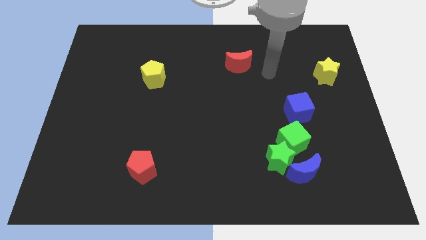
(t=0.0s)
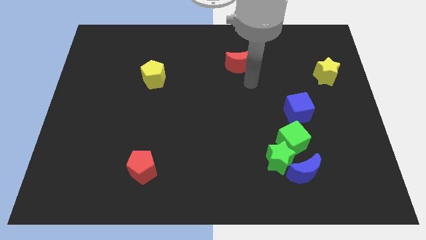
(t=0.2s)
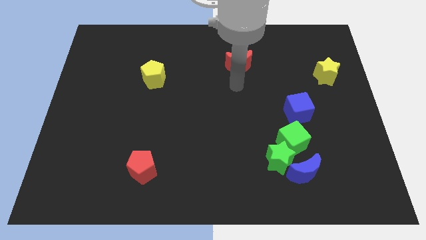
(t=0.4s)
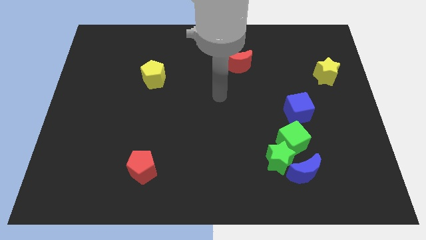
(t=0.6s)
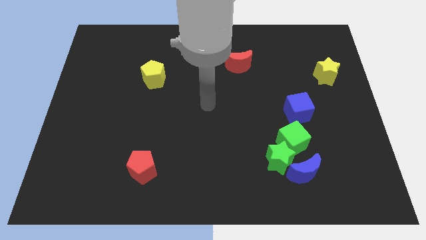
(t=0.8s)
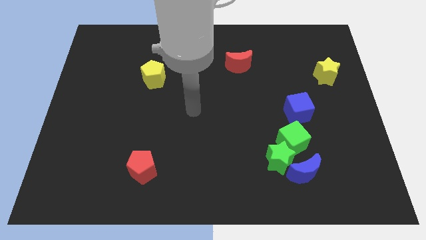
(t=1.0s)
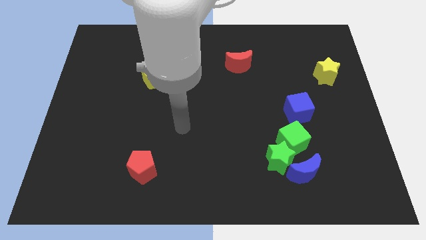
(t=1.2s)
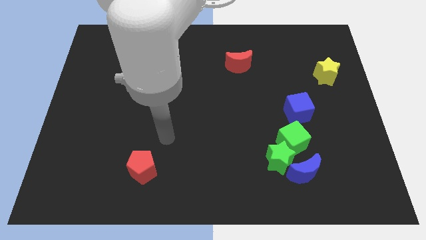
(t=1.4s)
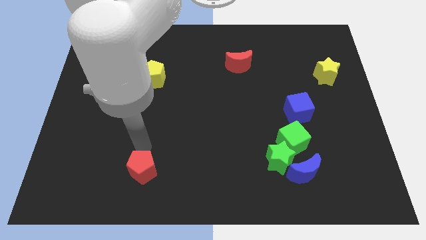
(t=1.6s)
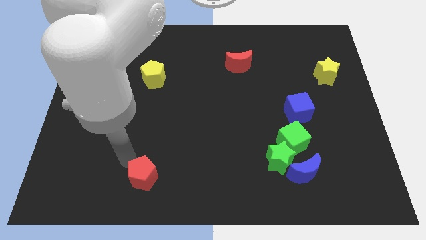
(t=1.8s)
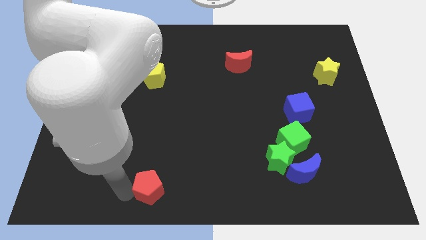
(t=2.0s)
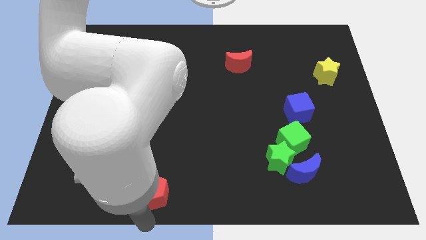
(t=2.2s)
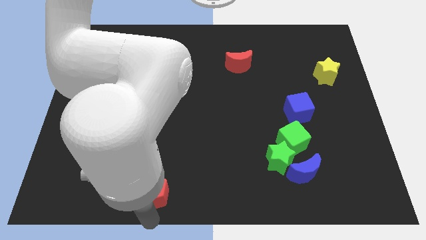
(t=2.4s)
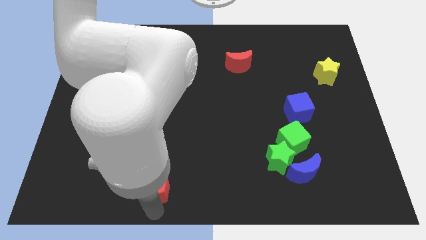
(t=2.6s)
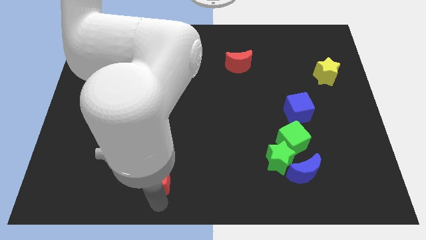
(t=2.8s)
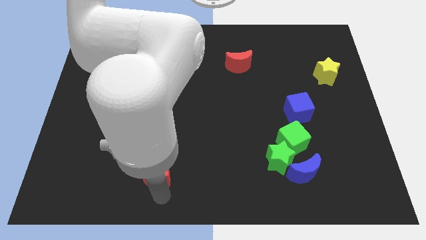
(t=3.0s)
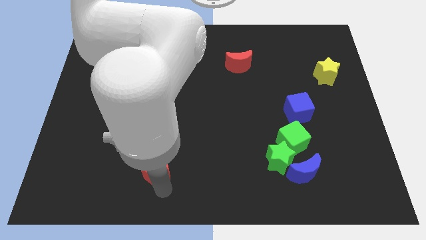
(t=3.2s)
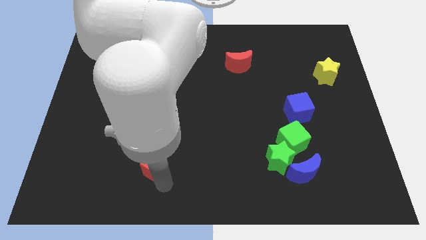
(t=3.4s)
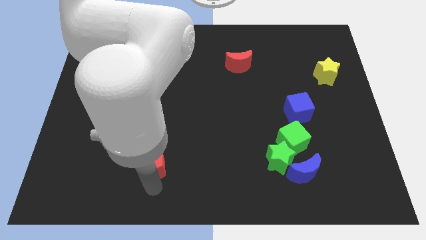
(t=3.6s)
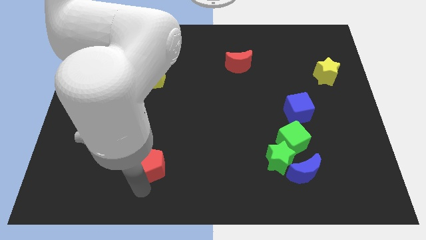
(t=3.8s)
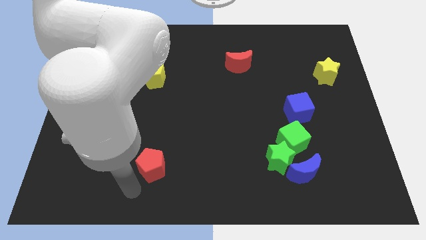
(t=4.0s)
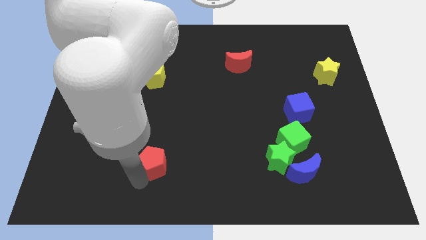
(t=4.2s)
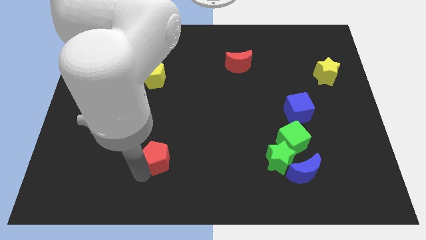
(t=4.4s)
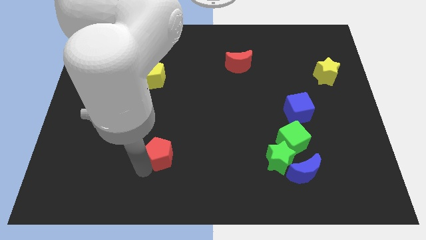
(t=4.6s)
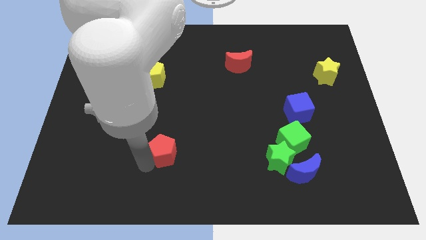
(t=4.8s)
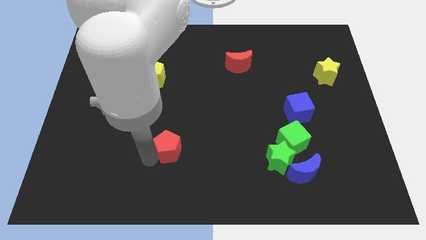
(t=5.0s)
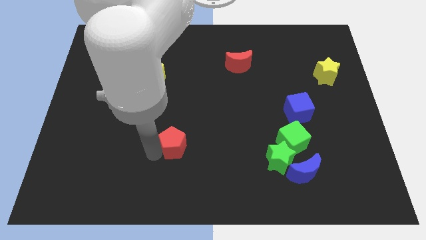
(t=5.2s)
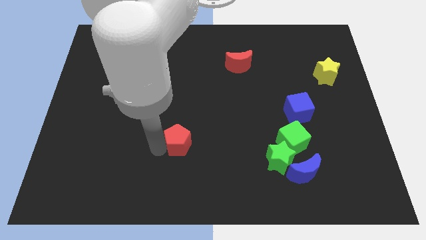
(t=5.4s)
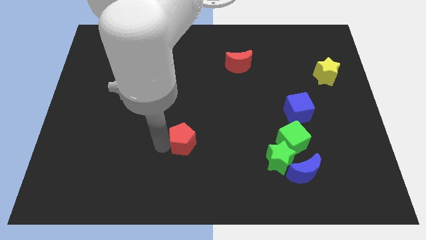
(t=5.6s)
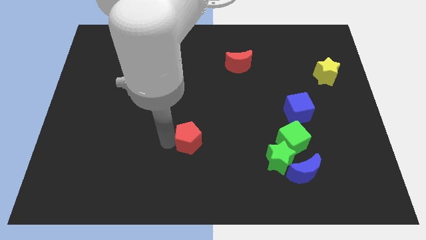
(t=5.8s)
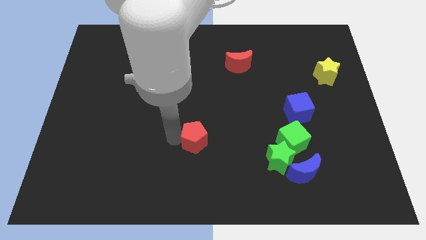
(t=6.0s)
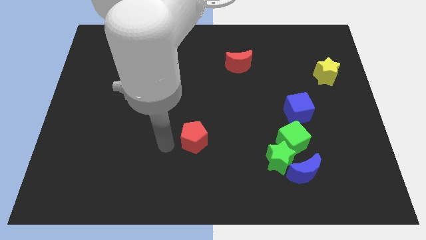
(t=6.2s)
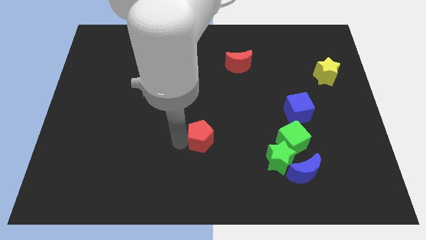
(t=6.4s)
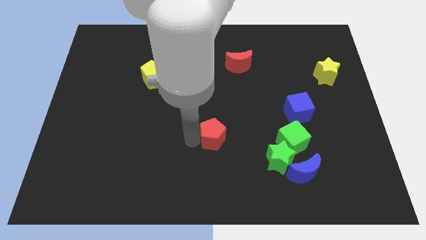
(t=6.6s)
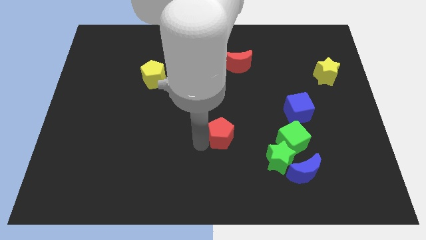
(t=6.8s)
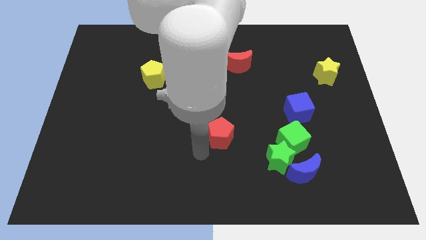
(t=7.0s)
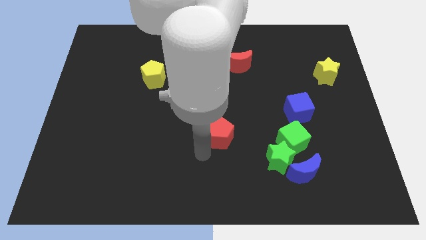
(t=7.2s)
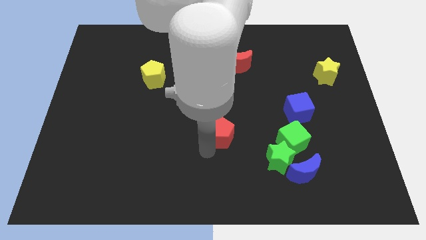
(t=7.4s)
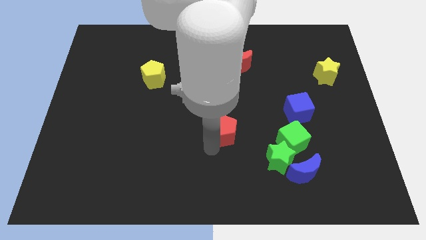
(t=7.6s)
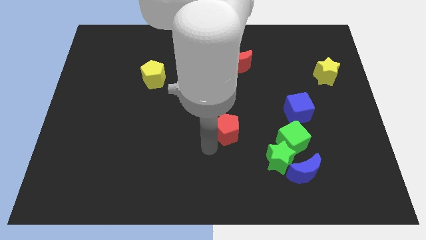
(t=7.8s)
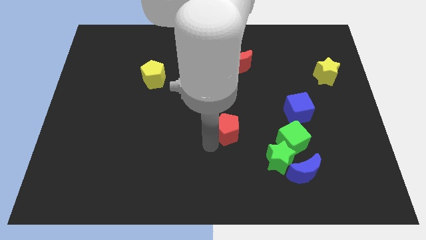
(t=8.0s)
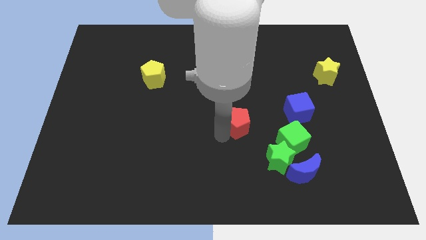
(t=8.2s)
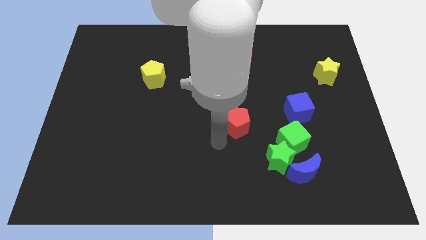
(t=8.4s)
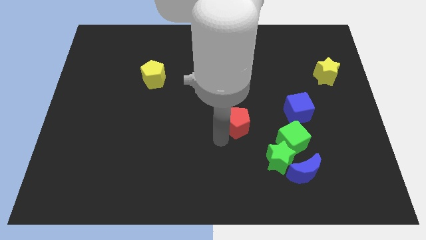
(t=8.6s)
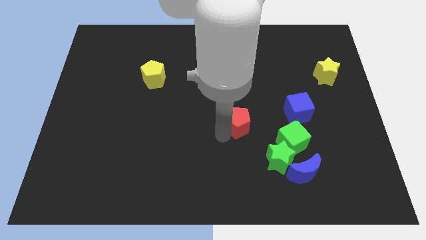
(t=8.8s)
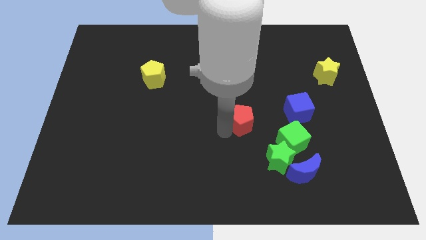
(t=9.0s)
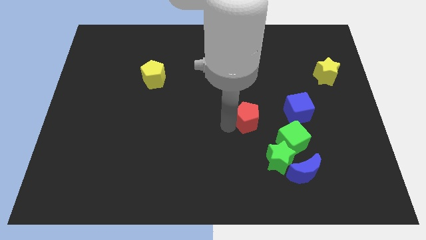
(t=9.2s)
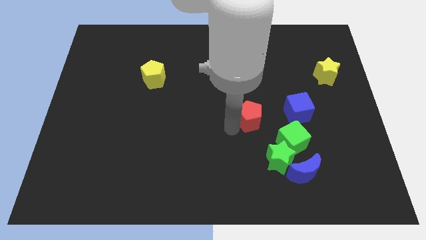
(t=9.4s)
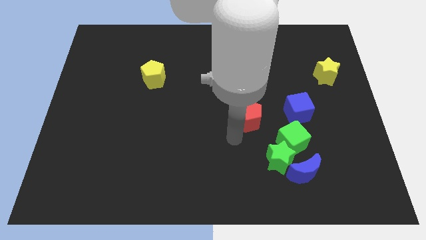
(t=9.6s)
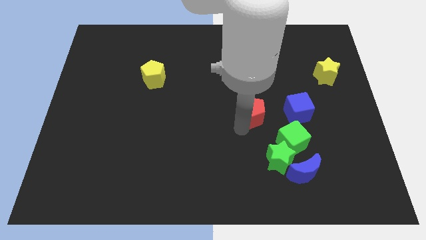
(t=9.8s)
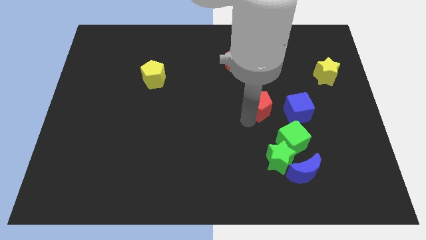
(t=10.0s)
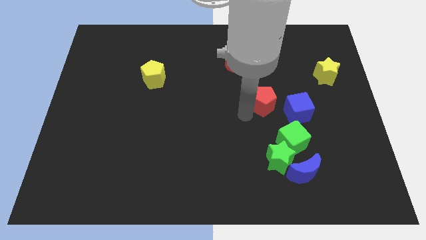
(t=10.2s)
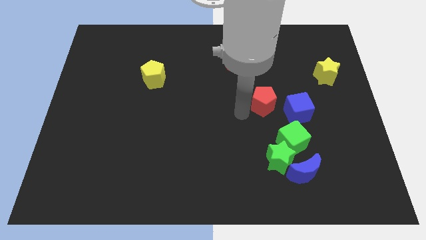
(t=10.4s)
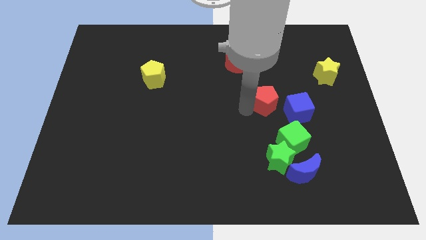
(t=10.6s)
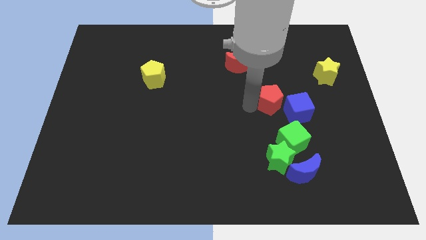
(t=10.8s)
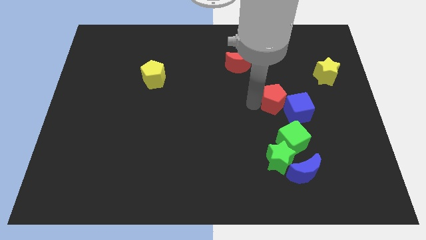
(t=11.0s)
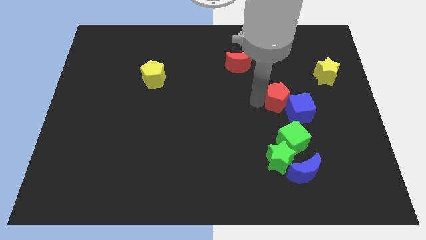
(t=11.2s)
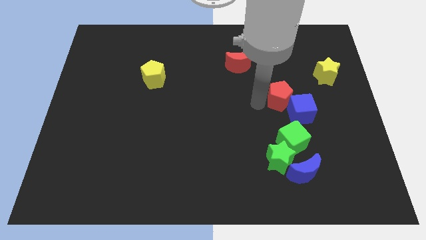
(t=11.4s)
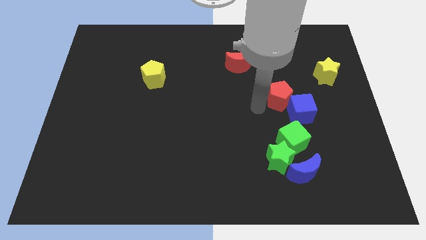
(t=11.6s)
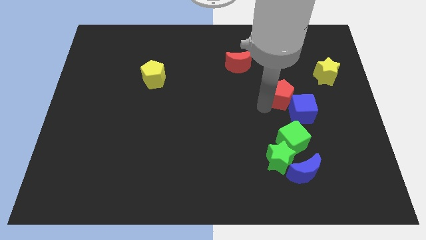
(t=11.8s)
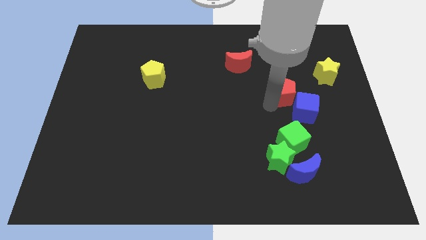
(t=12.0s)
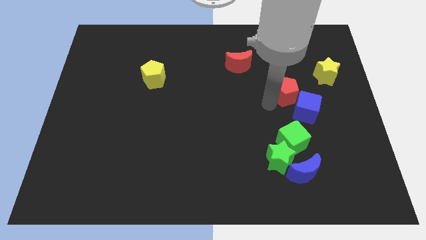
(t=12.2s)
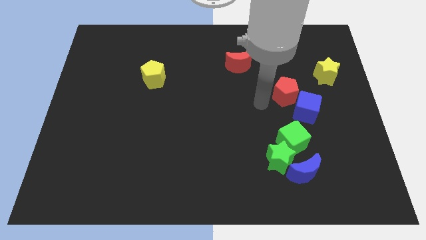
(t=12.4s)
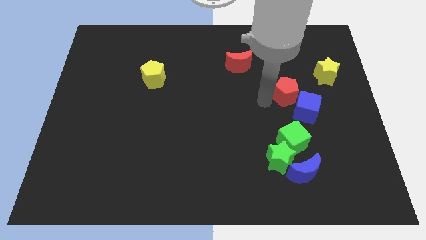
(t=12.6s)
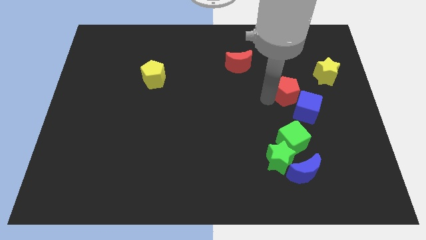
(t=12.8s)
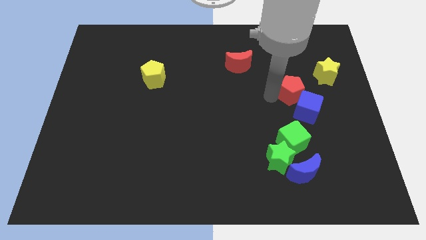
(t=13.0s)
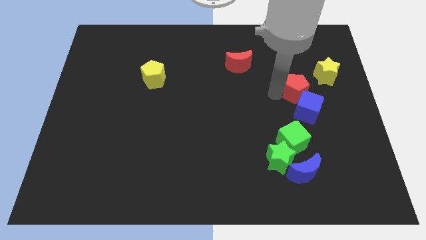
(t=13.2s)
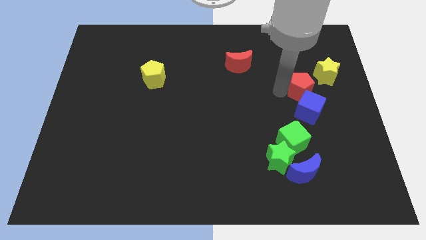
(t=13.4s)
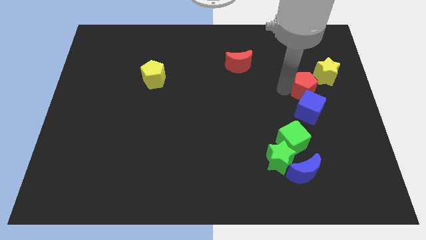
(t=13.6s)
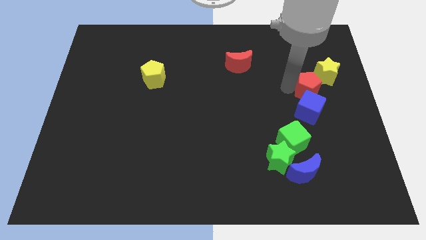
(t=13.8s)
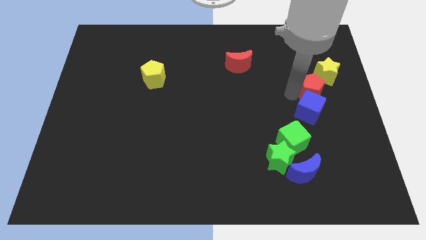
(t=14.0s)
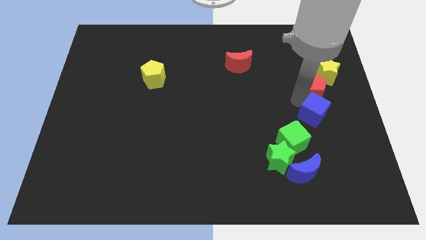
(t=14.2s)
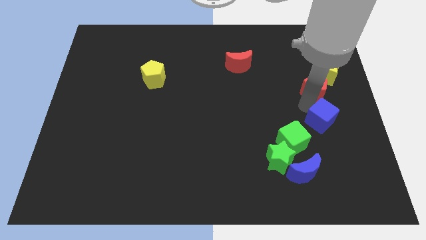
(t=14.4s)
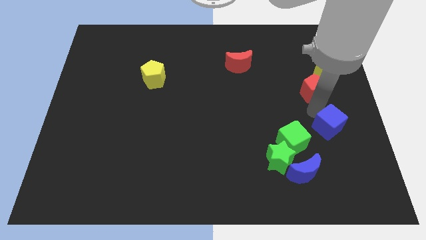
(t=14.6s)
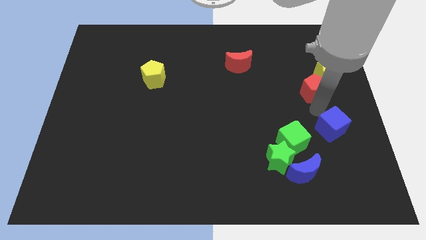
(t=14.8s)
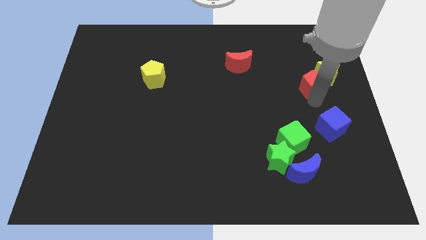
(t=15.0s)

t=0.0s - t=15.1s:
push the red pentagon towards the yellow star
